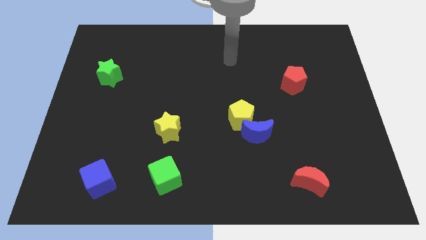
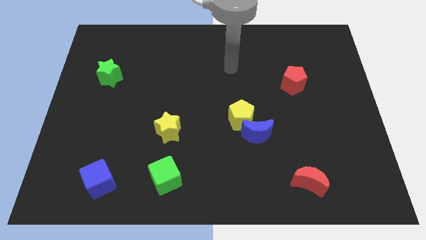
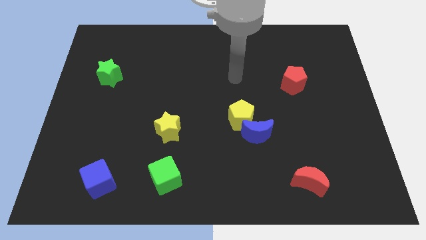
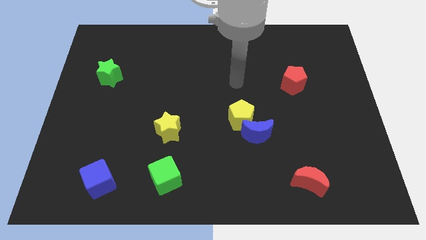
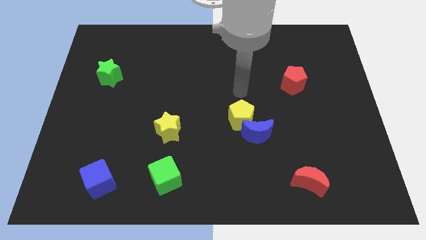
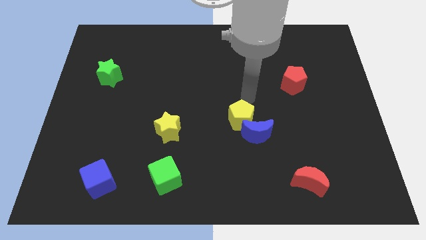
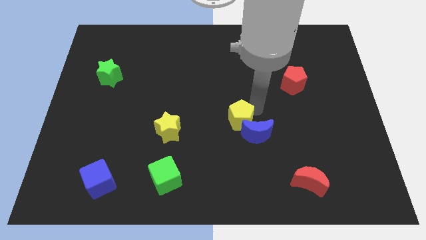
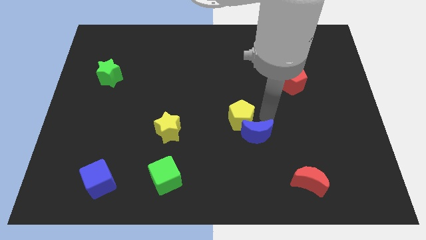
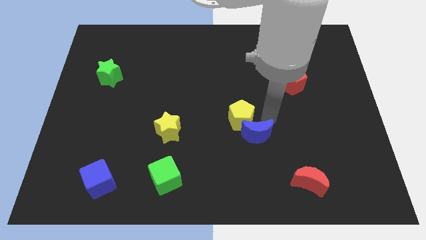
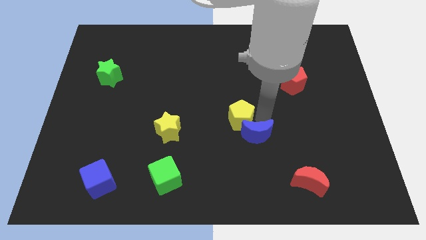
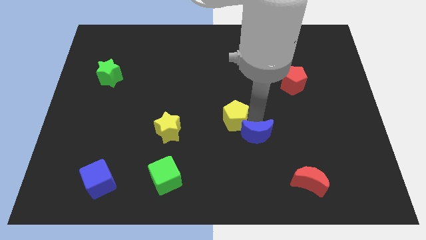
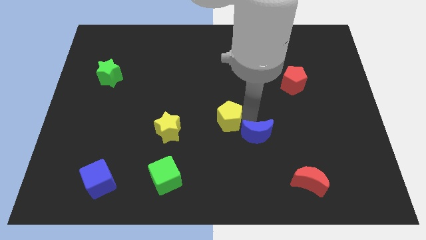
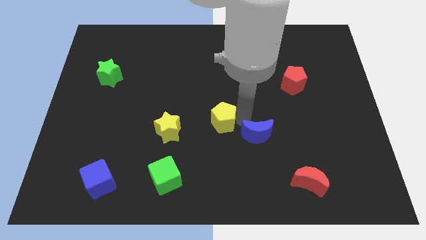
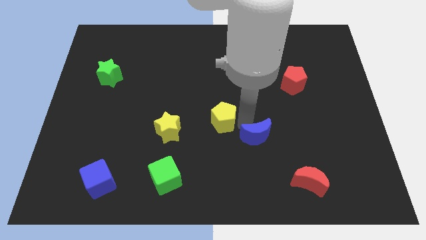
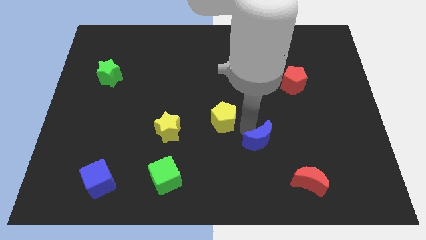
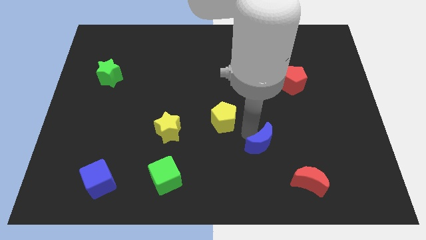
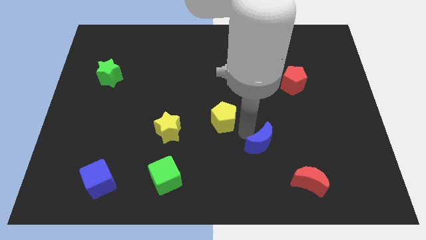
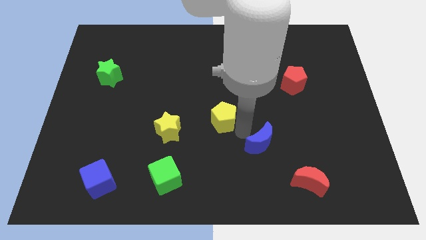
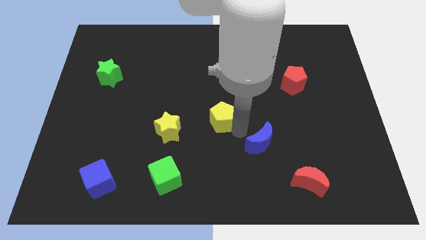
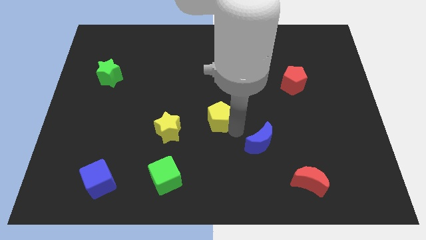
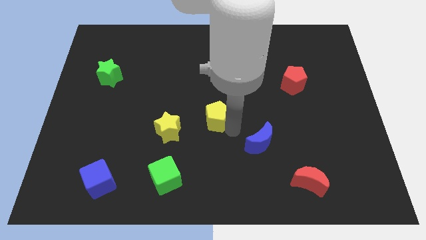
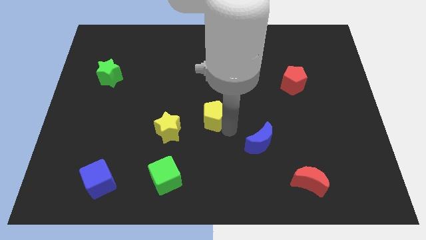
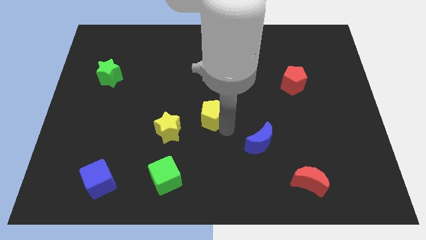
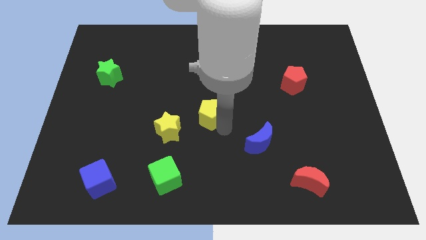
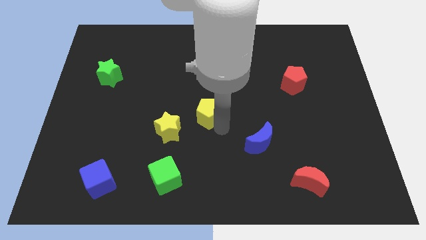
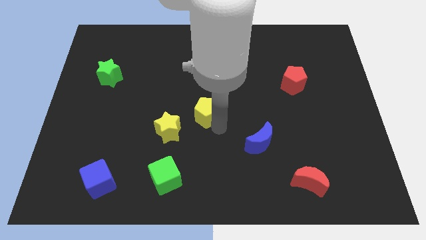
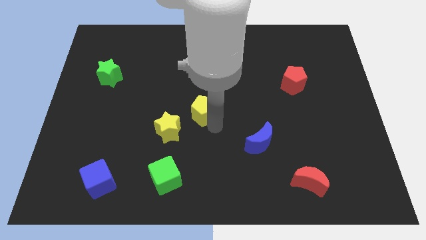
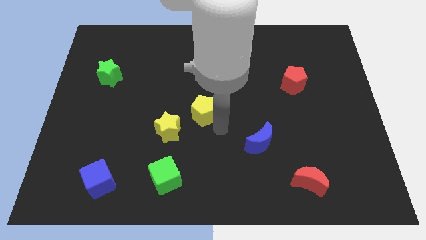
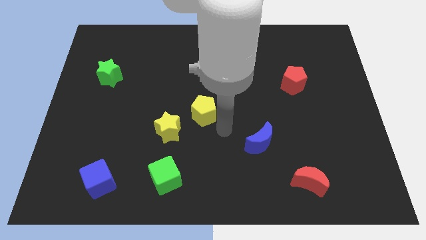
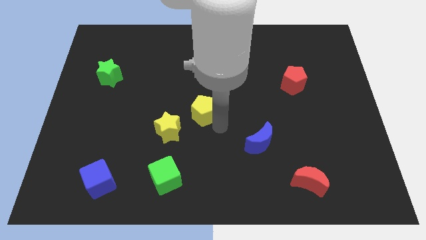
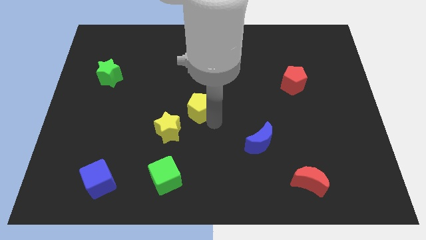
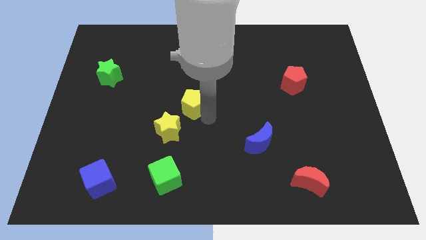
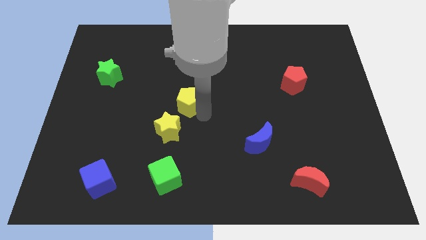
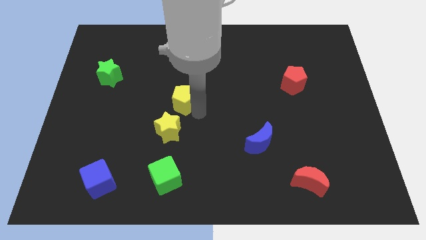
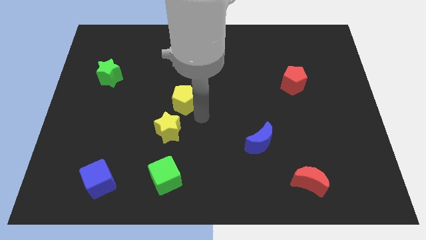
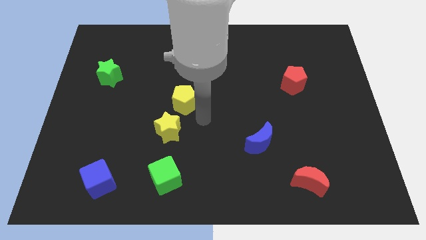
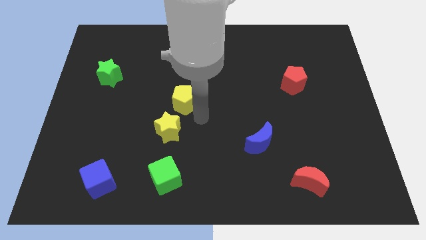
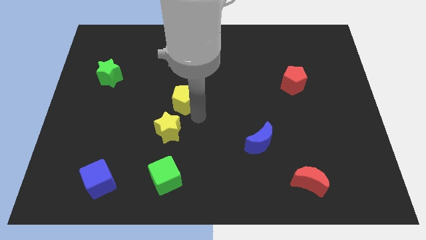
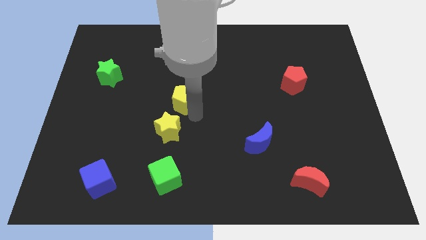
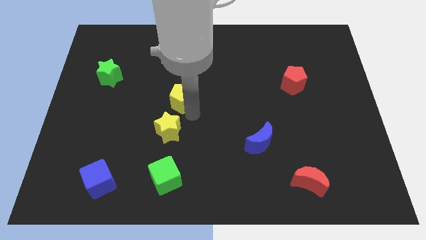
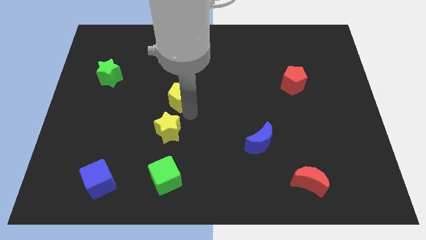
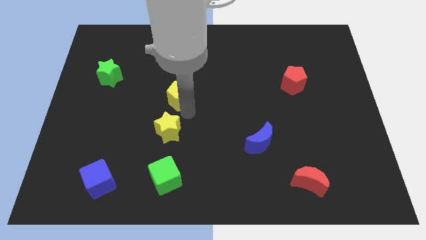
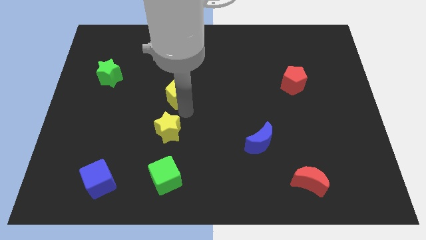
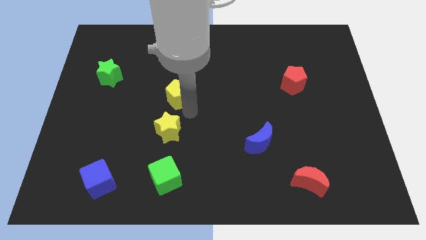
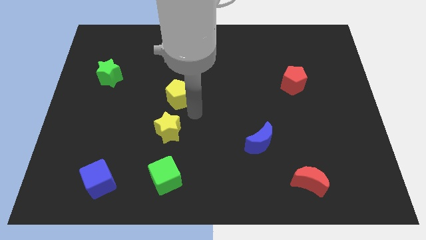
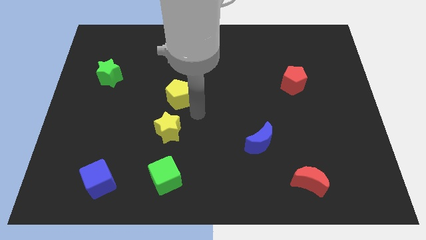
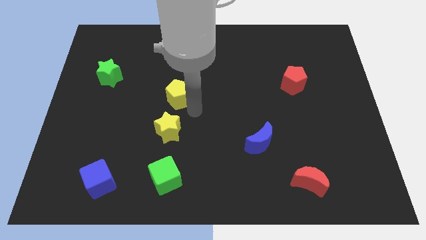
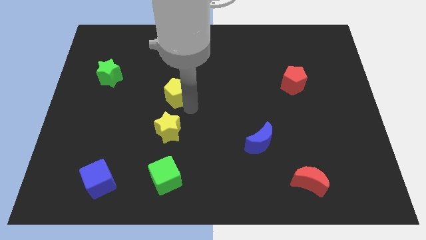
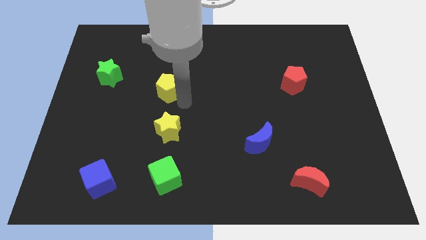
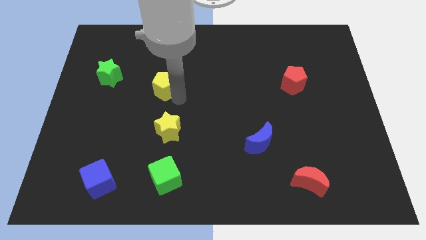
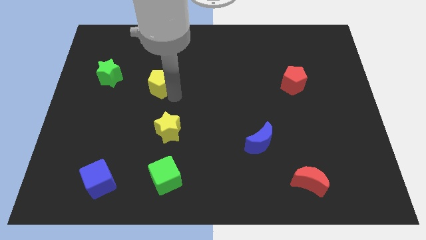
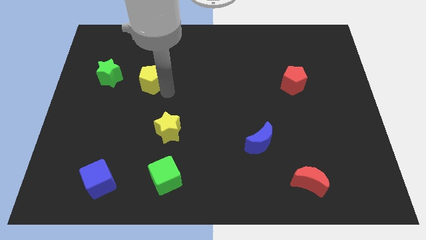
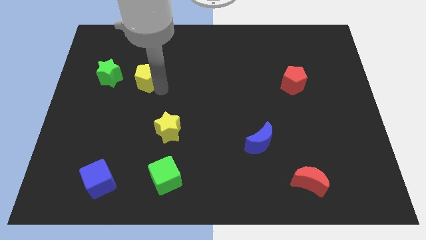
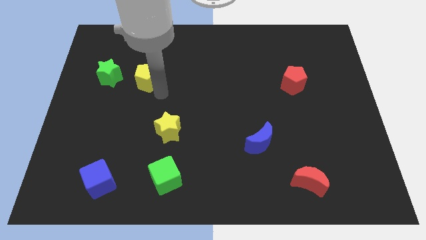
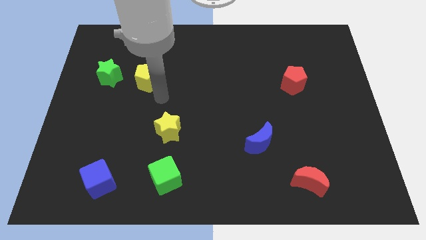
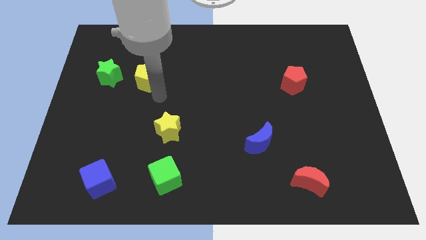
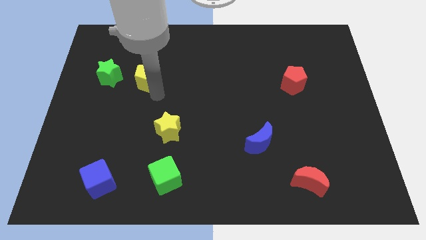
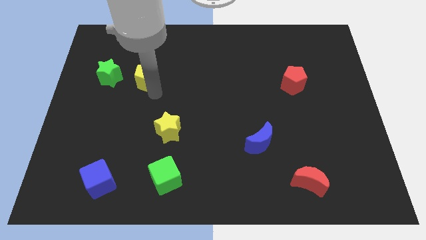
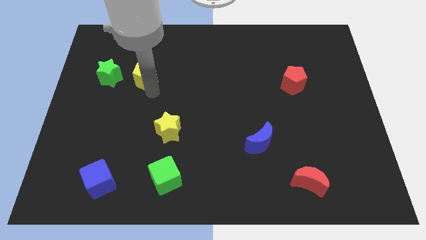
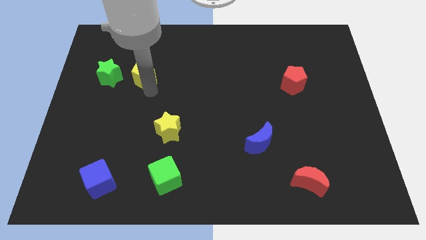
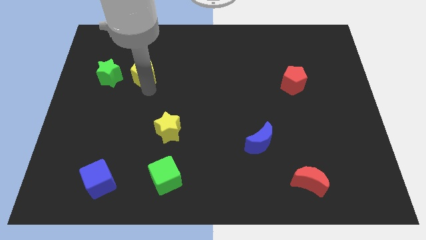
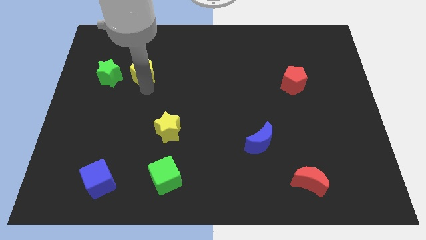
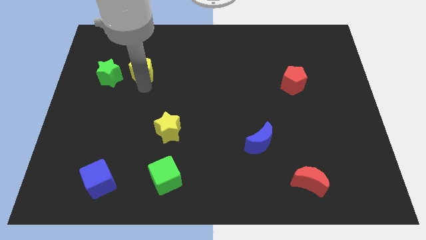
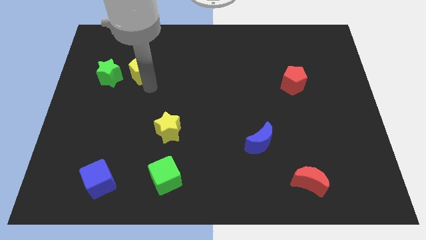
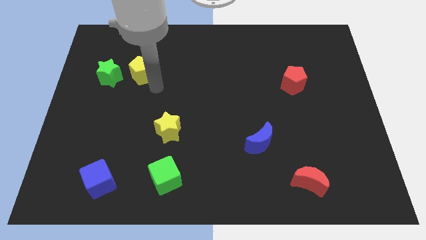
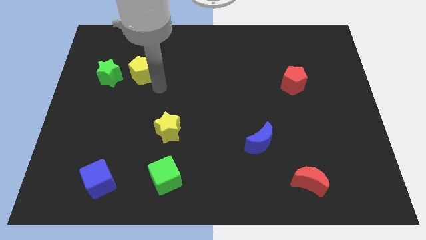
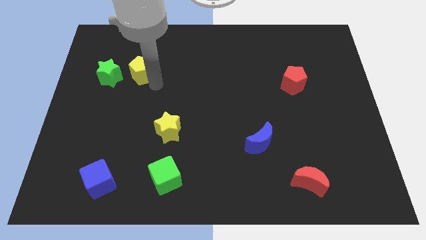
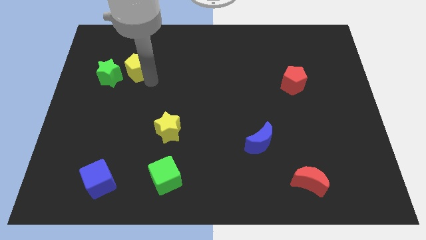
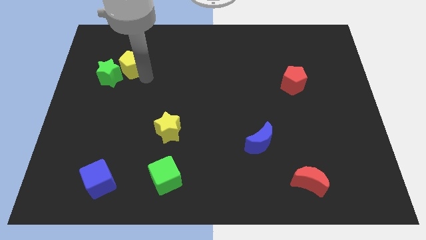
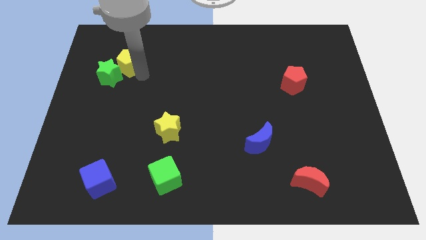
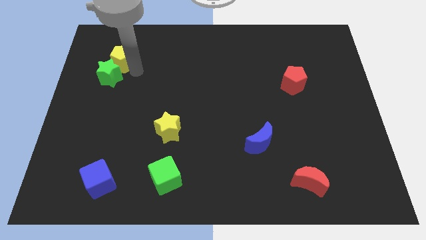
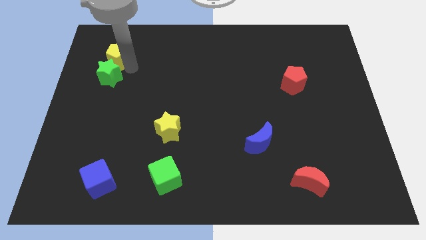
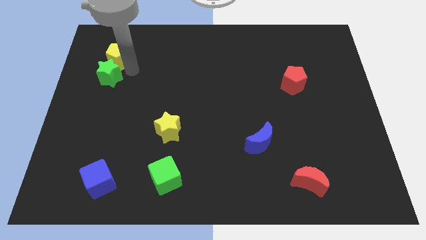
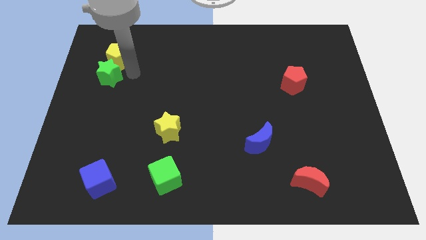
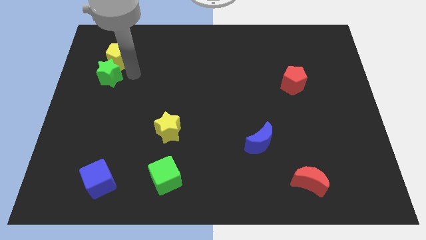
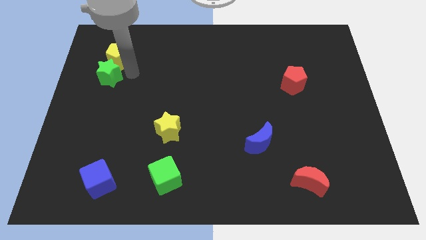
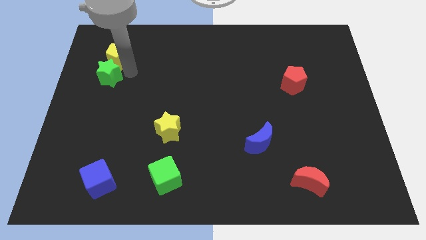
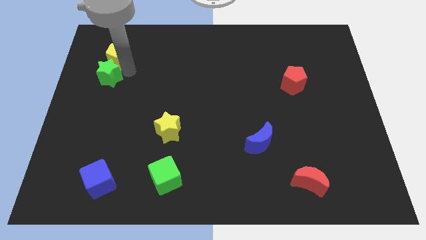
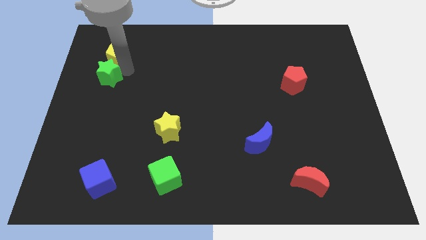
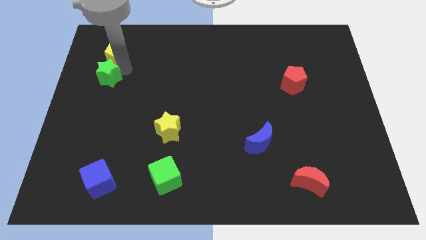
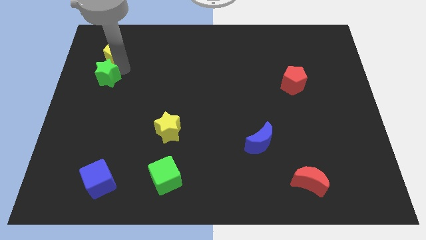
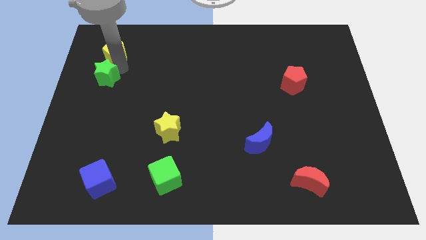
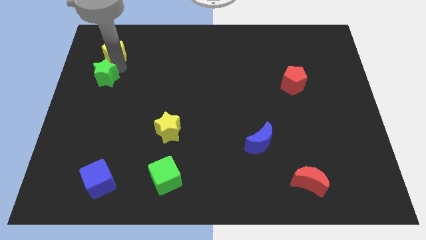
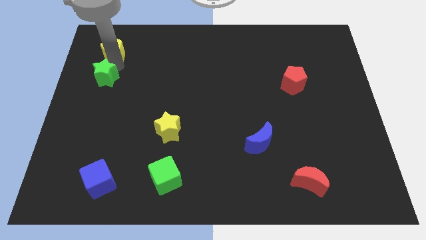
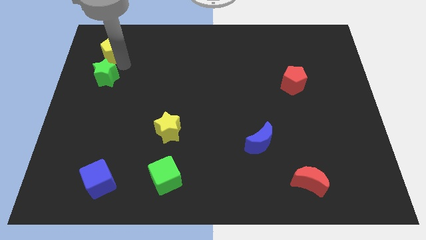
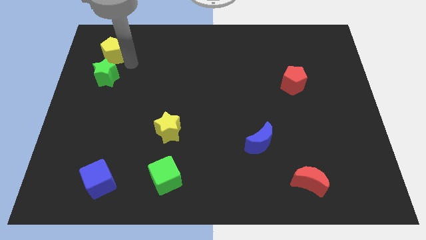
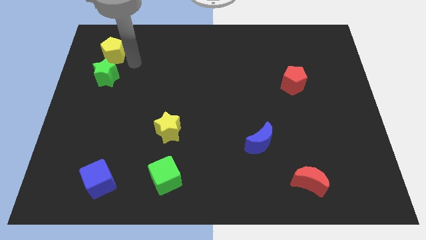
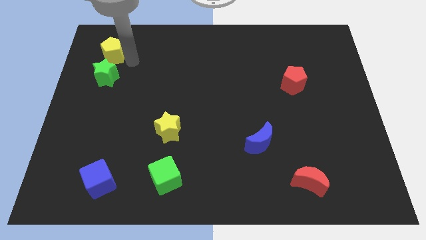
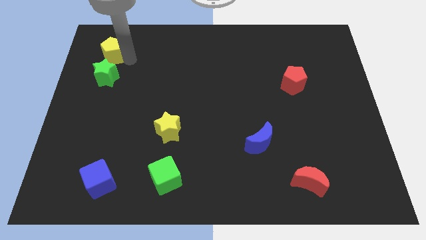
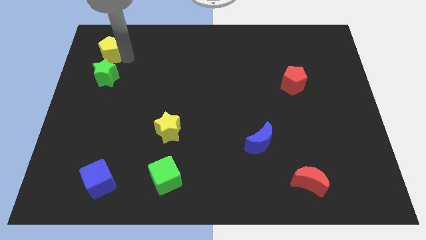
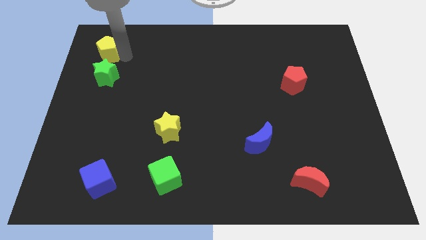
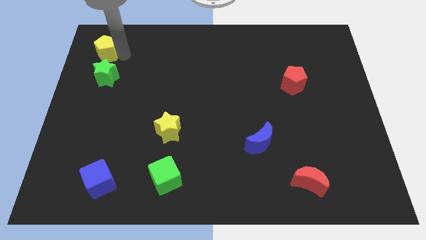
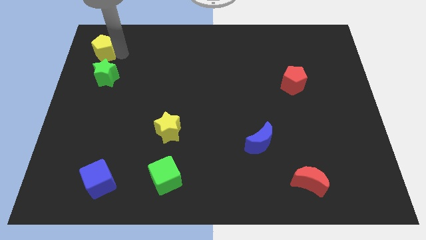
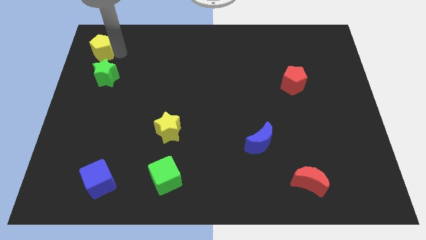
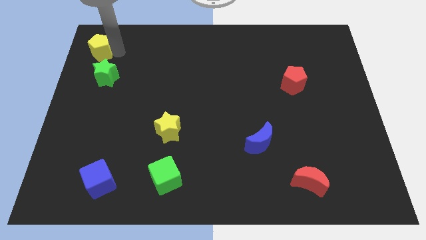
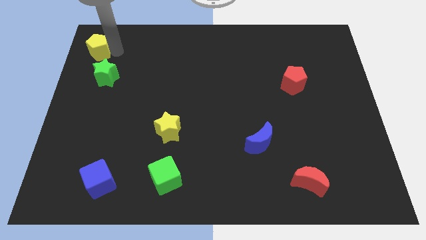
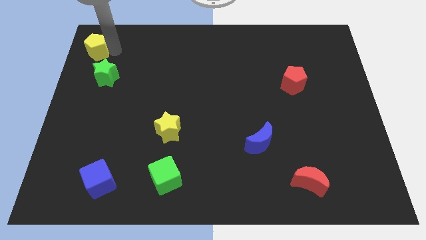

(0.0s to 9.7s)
move the yellow pentagon to the upper left corner
